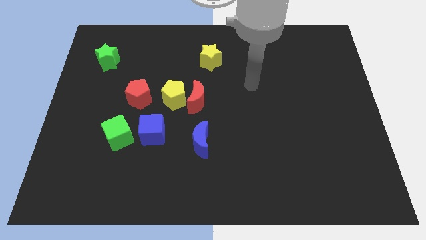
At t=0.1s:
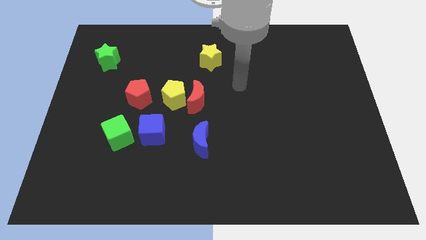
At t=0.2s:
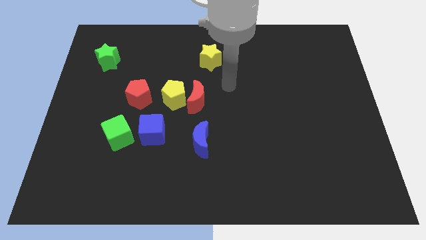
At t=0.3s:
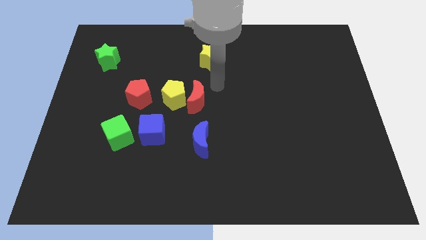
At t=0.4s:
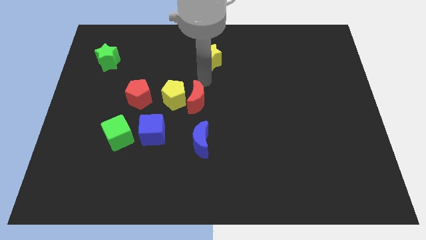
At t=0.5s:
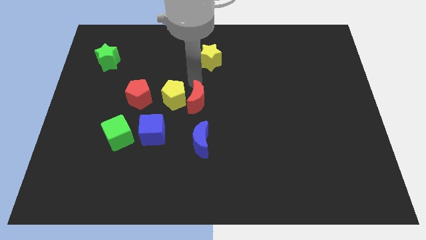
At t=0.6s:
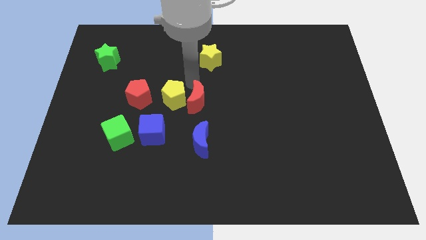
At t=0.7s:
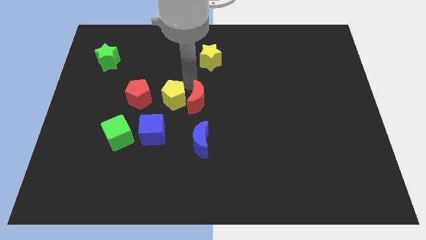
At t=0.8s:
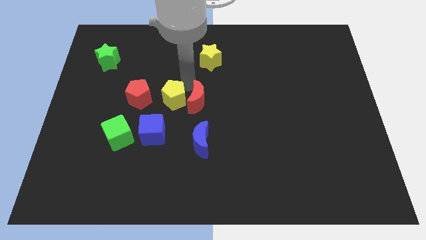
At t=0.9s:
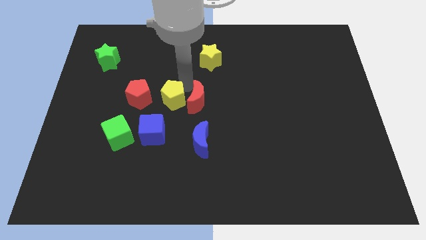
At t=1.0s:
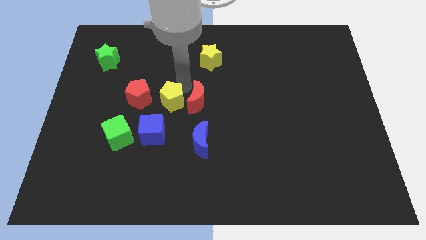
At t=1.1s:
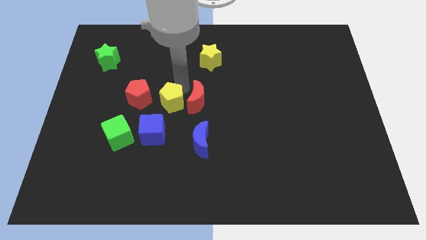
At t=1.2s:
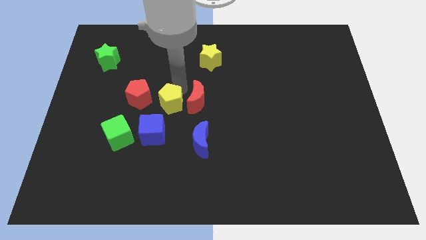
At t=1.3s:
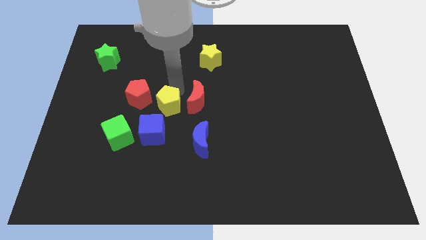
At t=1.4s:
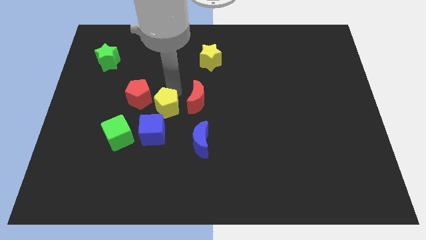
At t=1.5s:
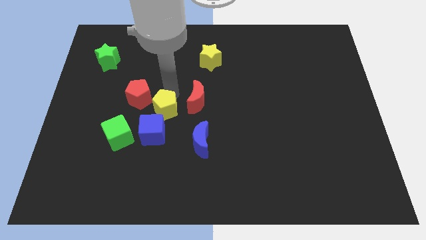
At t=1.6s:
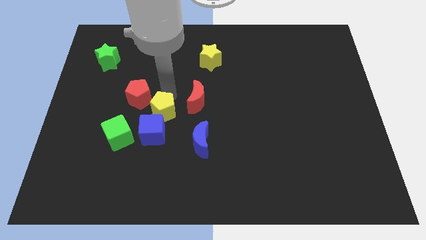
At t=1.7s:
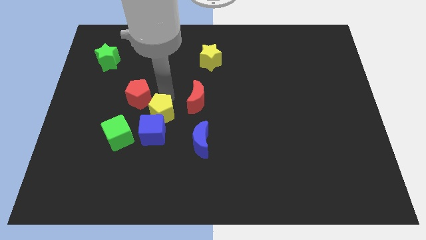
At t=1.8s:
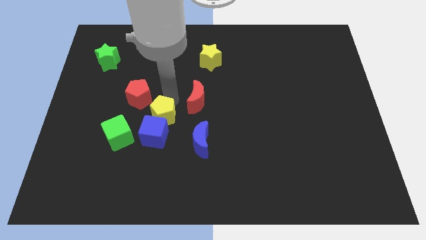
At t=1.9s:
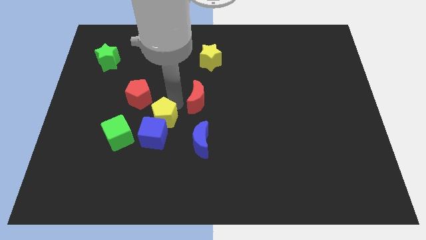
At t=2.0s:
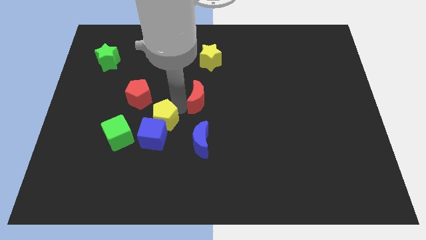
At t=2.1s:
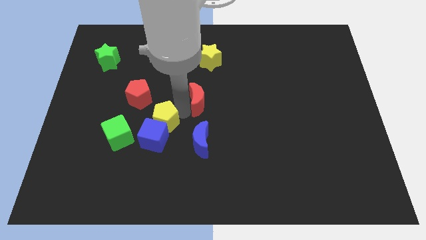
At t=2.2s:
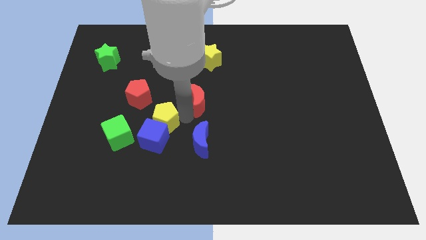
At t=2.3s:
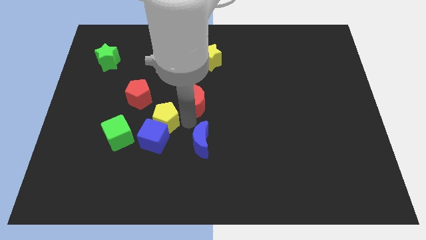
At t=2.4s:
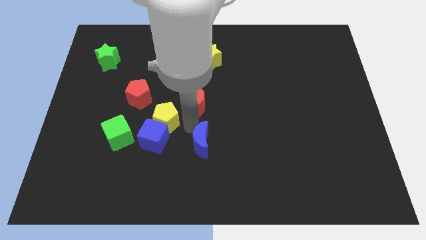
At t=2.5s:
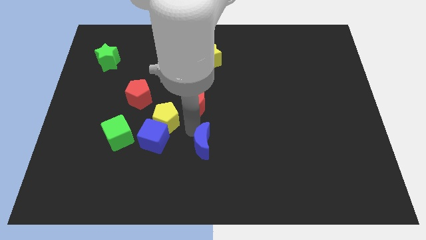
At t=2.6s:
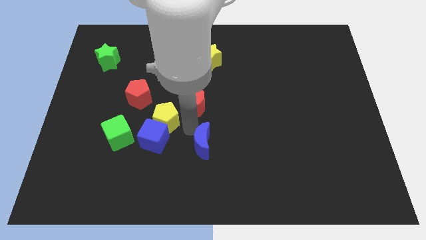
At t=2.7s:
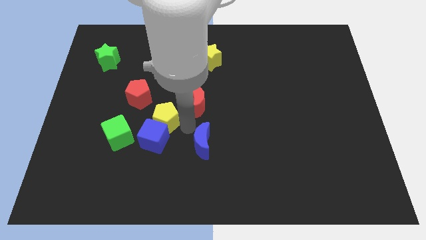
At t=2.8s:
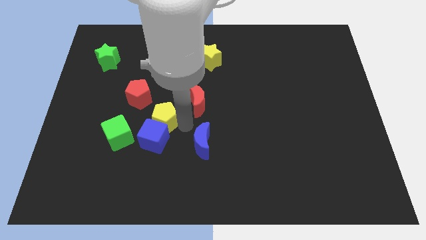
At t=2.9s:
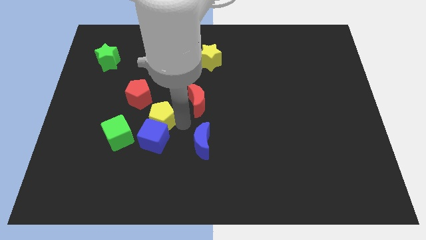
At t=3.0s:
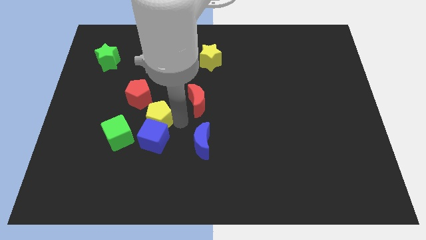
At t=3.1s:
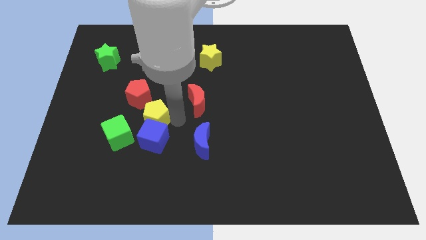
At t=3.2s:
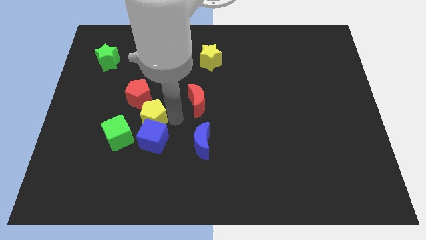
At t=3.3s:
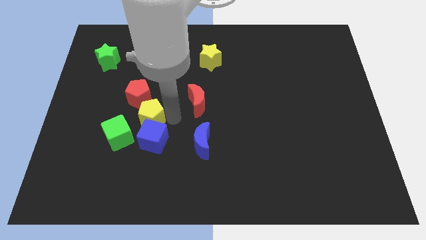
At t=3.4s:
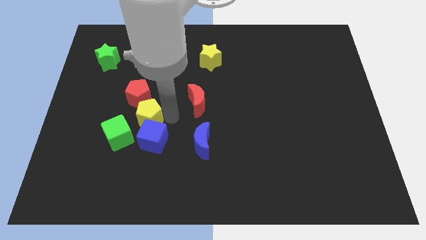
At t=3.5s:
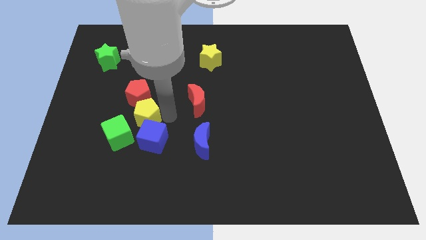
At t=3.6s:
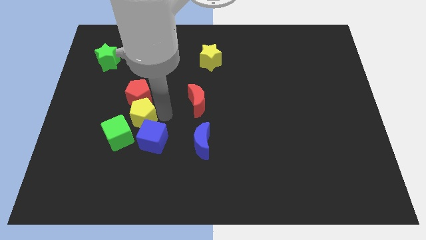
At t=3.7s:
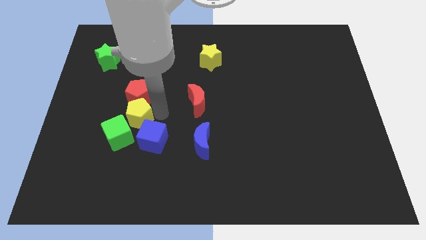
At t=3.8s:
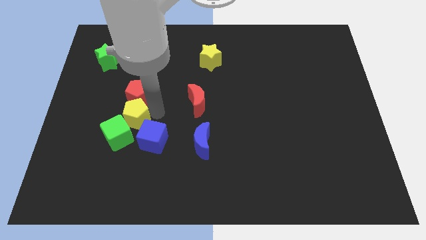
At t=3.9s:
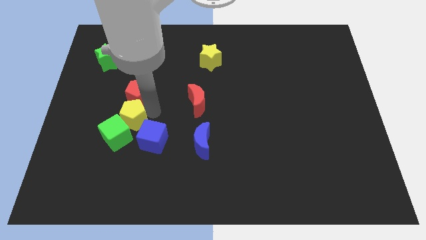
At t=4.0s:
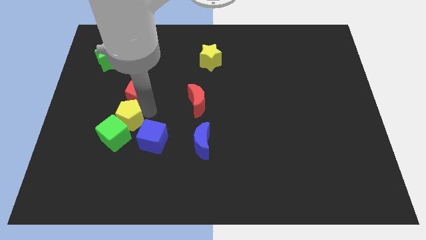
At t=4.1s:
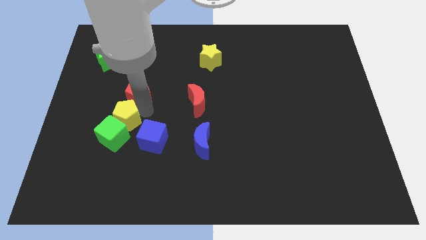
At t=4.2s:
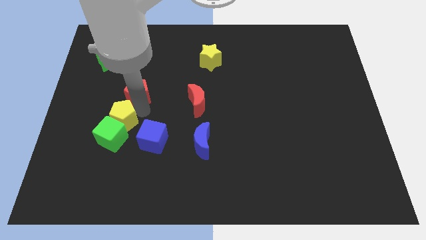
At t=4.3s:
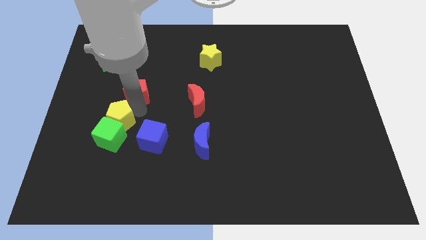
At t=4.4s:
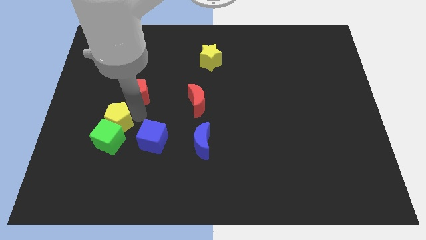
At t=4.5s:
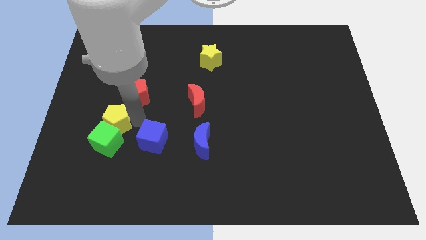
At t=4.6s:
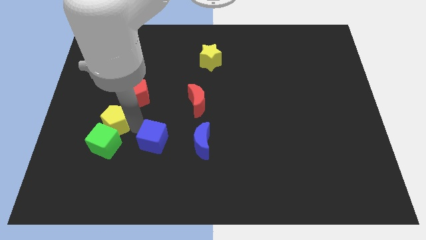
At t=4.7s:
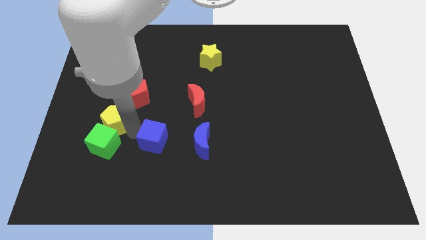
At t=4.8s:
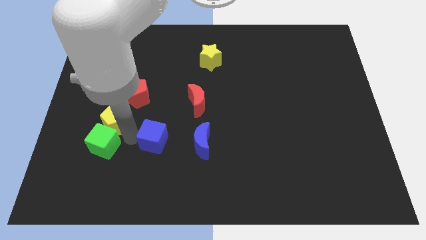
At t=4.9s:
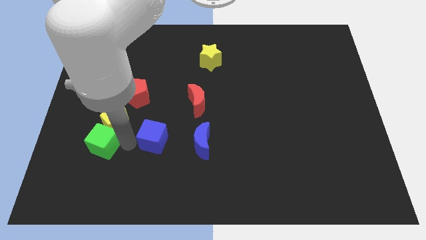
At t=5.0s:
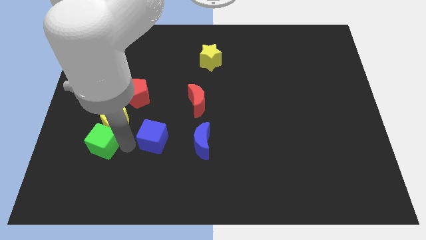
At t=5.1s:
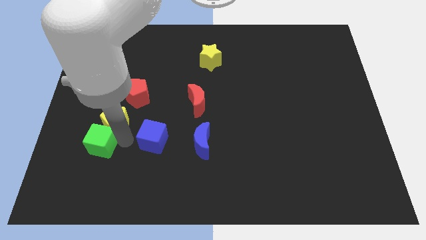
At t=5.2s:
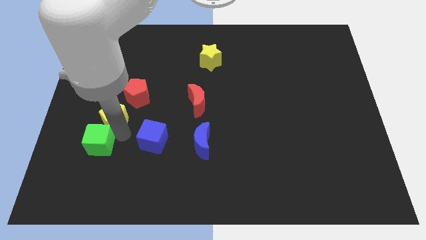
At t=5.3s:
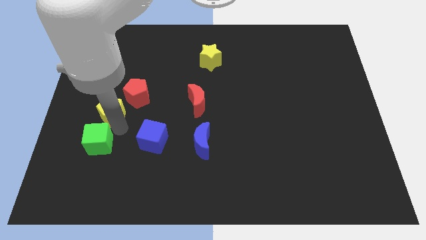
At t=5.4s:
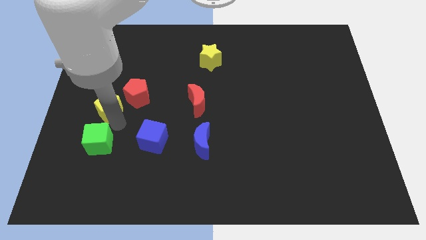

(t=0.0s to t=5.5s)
push the yellow pentagon just left of the red pentagon

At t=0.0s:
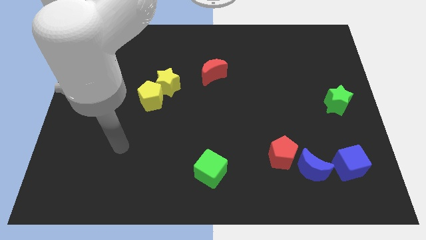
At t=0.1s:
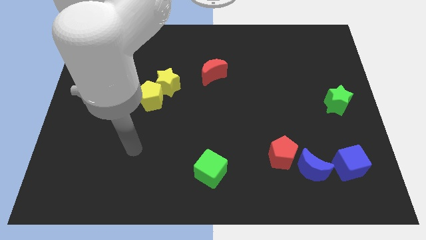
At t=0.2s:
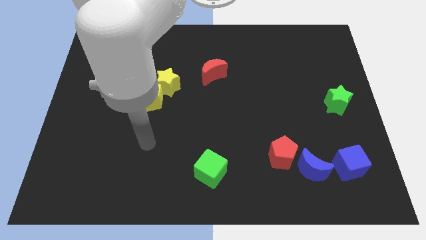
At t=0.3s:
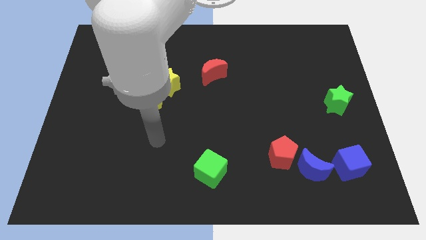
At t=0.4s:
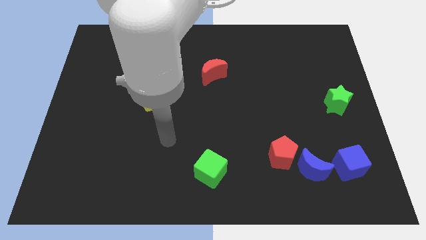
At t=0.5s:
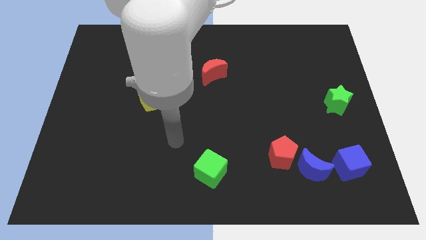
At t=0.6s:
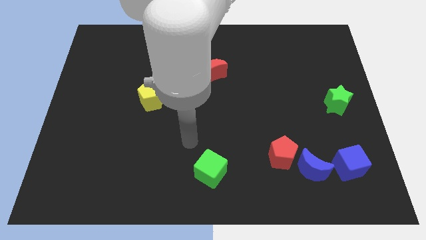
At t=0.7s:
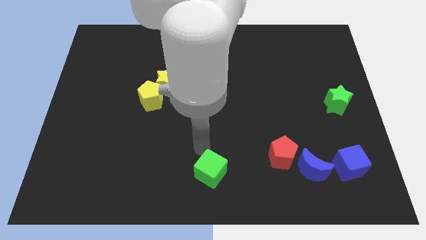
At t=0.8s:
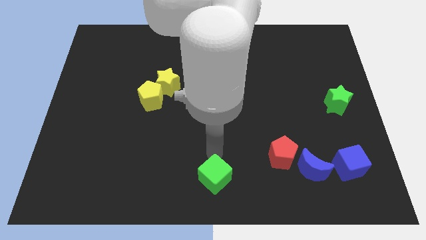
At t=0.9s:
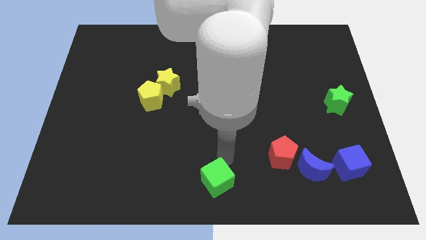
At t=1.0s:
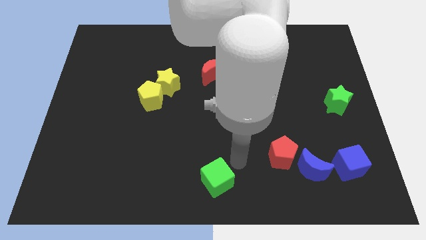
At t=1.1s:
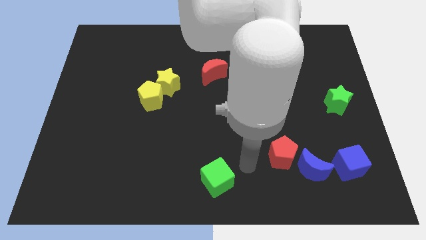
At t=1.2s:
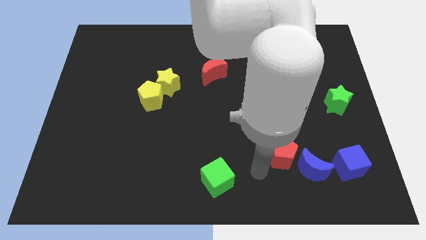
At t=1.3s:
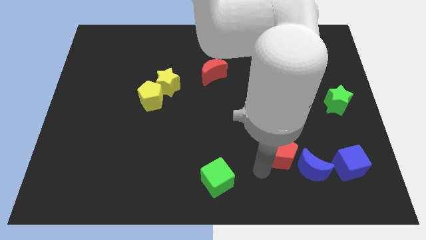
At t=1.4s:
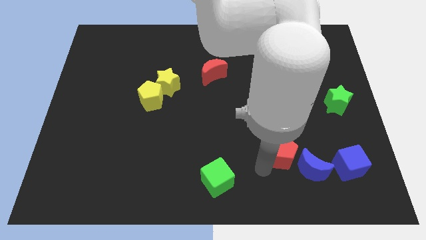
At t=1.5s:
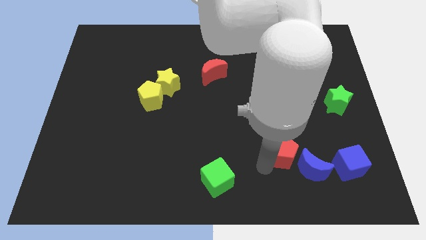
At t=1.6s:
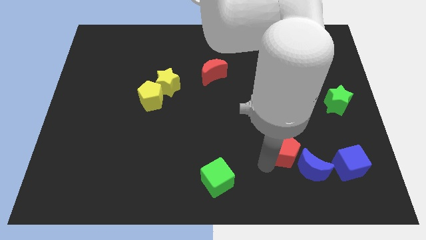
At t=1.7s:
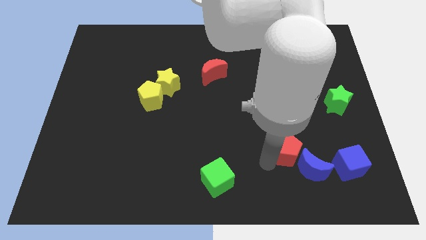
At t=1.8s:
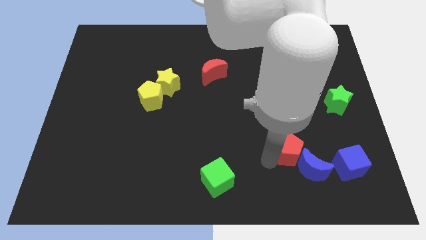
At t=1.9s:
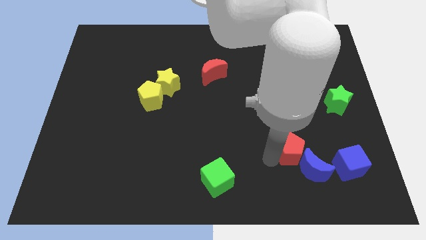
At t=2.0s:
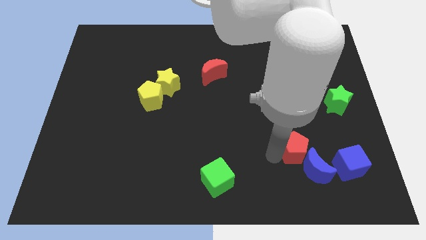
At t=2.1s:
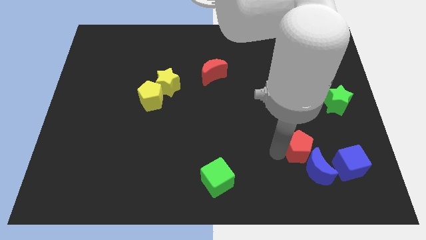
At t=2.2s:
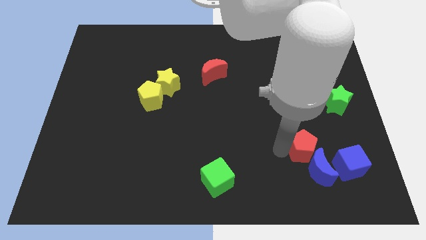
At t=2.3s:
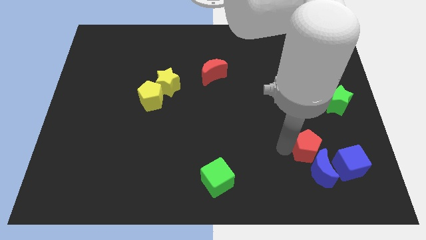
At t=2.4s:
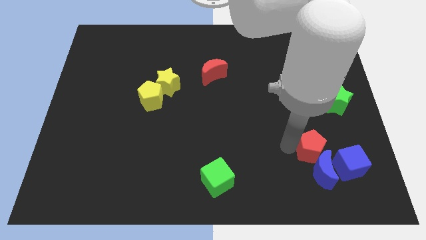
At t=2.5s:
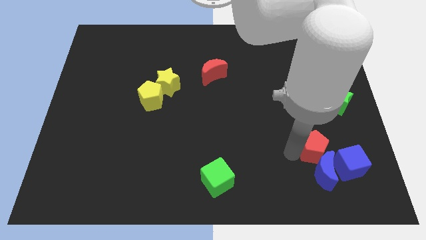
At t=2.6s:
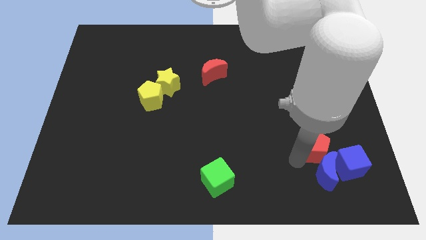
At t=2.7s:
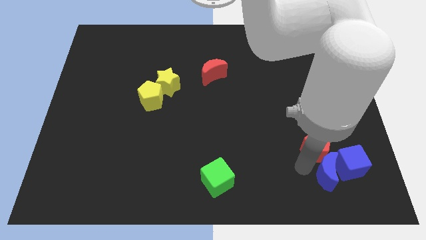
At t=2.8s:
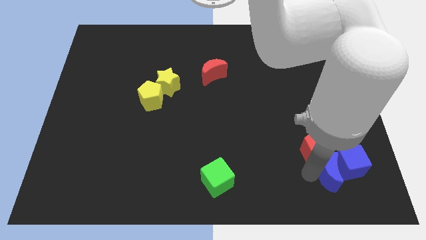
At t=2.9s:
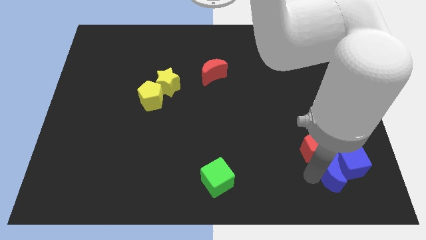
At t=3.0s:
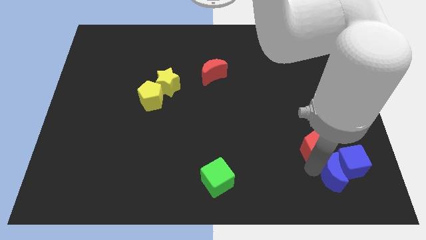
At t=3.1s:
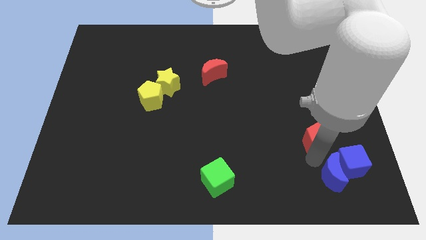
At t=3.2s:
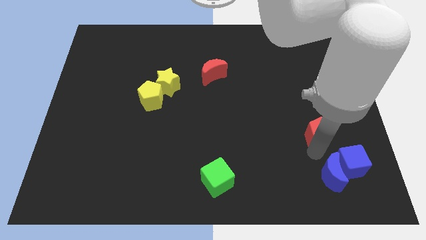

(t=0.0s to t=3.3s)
push the red pentagon to the bottom left of the green star
